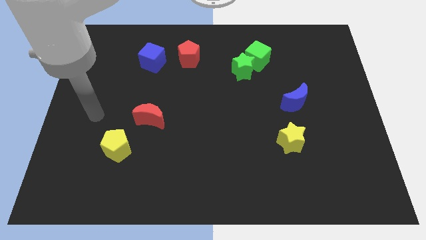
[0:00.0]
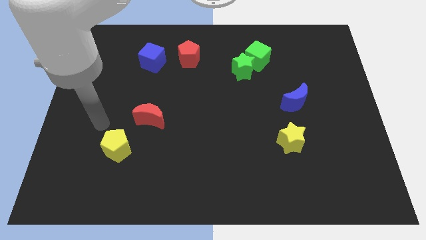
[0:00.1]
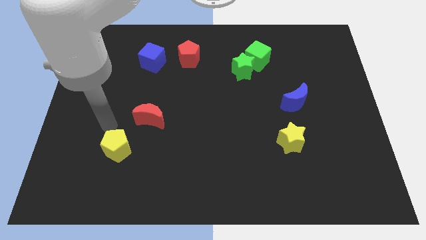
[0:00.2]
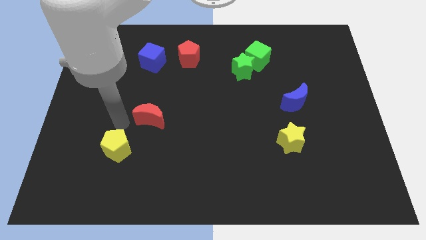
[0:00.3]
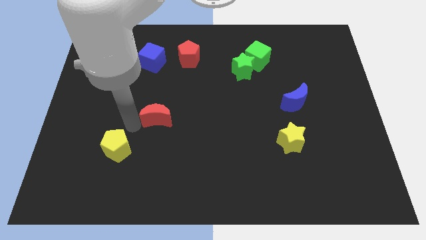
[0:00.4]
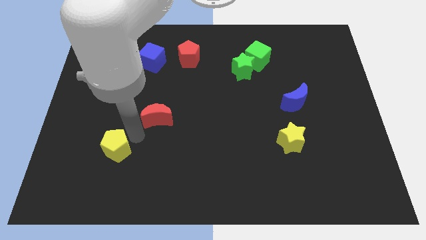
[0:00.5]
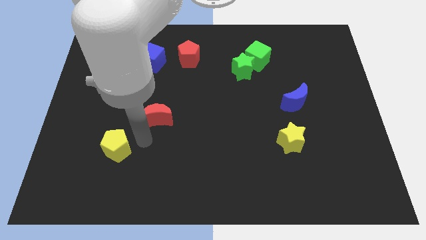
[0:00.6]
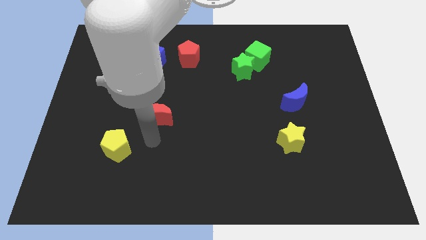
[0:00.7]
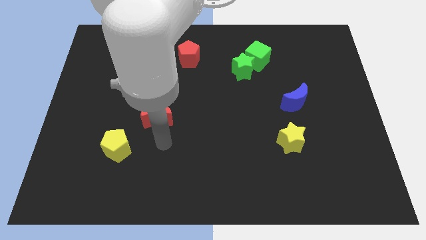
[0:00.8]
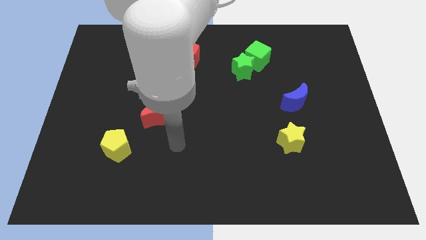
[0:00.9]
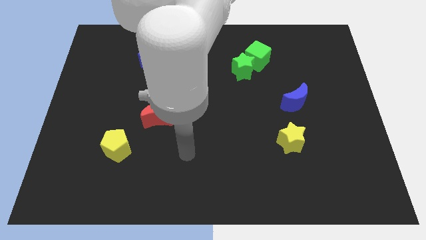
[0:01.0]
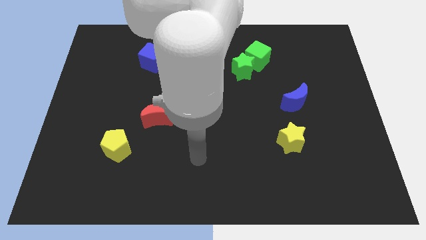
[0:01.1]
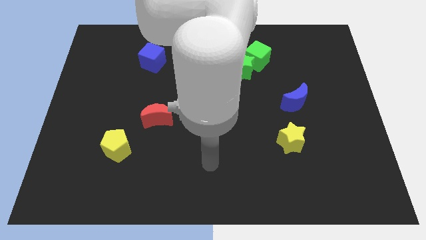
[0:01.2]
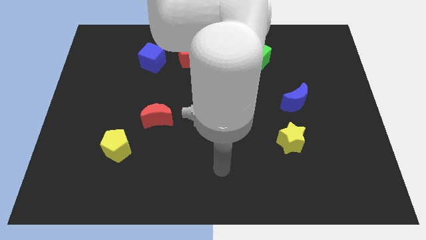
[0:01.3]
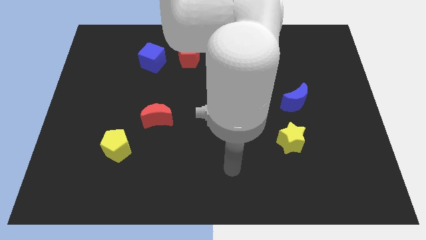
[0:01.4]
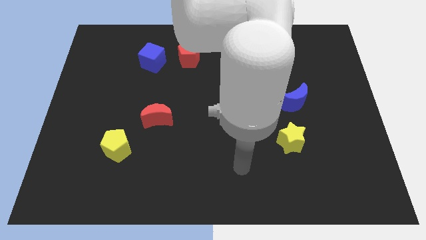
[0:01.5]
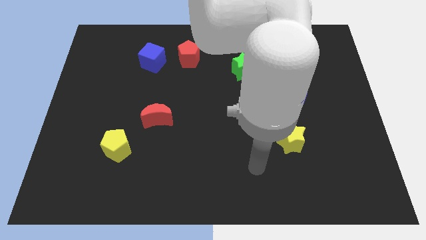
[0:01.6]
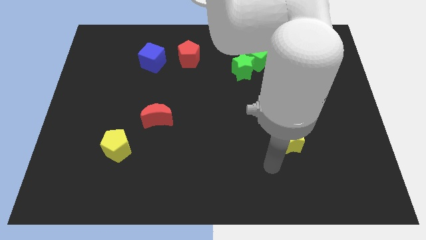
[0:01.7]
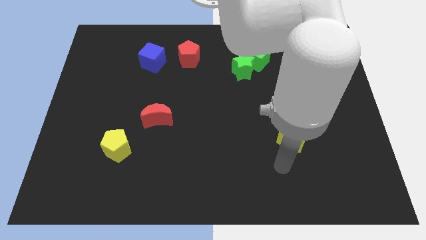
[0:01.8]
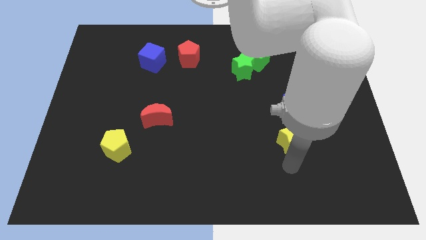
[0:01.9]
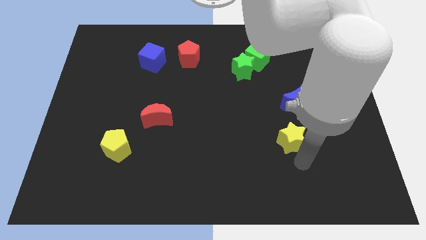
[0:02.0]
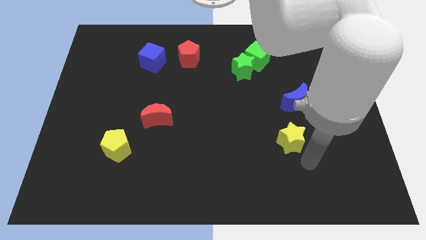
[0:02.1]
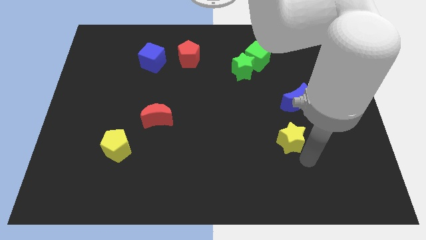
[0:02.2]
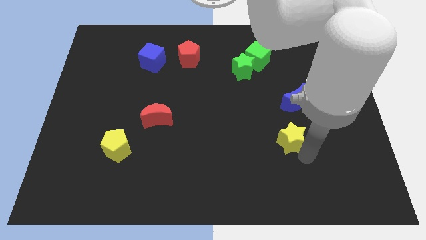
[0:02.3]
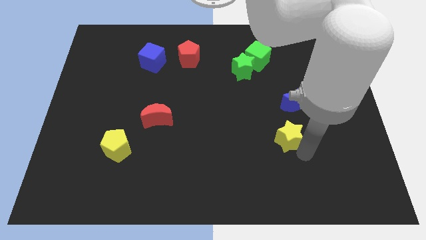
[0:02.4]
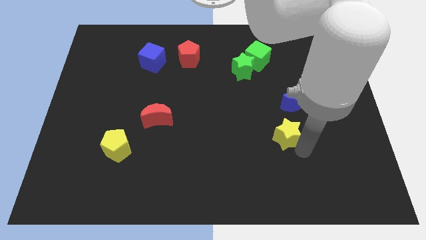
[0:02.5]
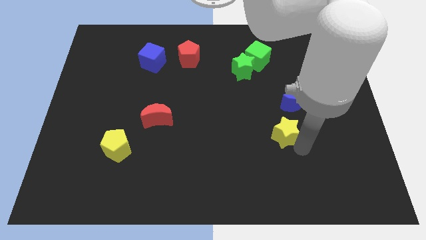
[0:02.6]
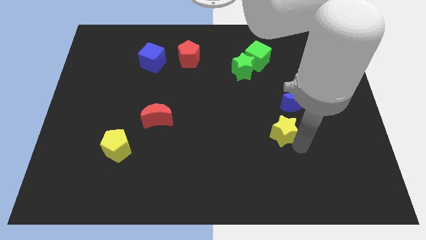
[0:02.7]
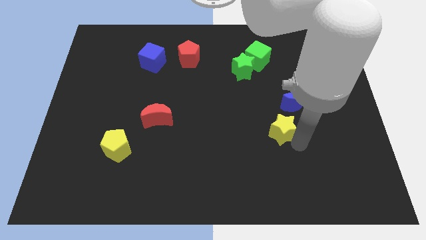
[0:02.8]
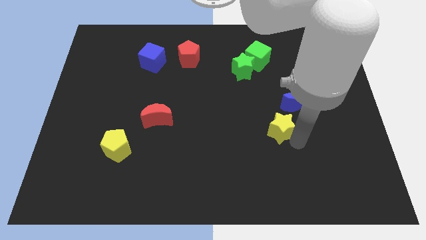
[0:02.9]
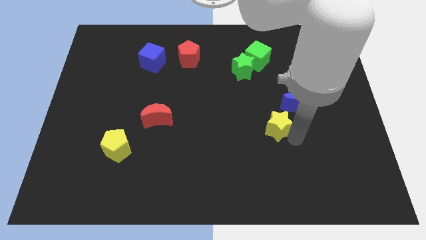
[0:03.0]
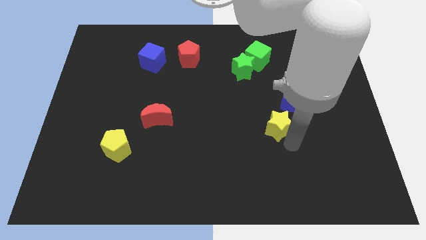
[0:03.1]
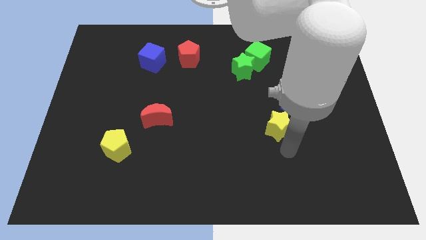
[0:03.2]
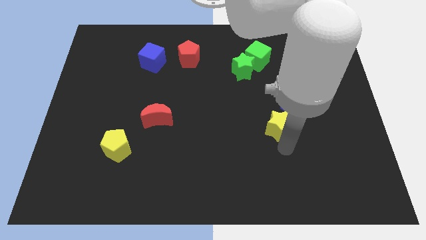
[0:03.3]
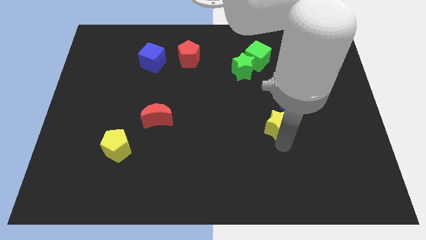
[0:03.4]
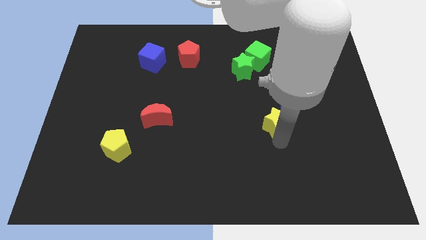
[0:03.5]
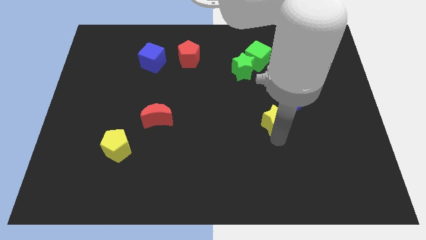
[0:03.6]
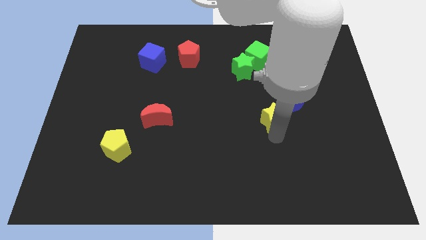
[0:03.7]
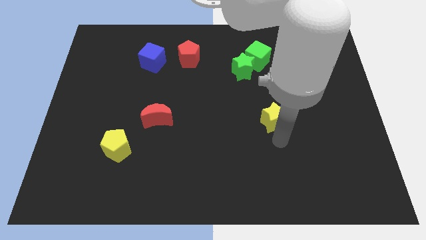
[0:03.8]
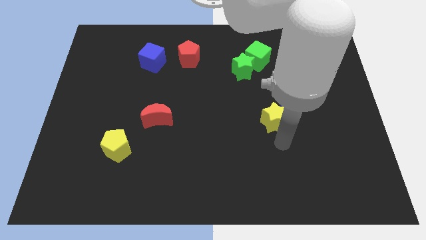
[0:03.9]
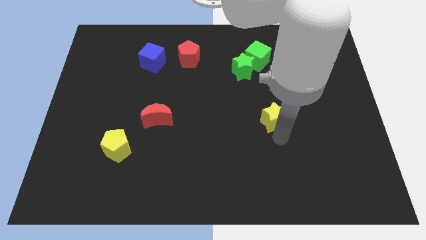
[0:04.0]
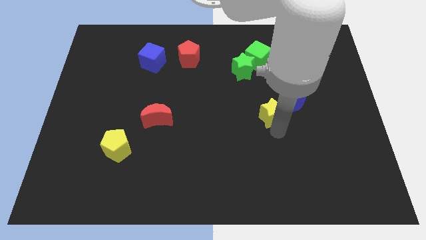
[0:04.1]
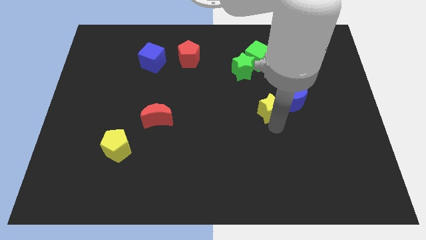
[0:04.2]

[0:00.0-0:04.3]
push the yellow star upwards a little bit

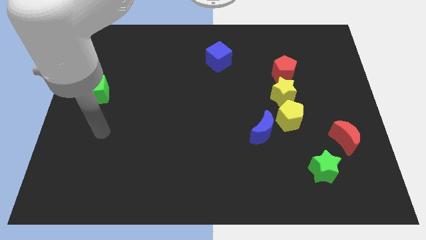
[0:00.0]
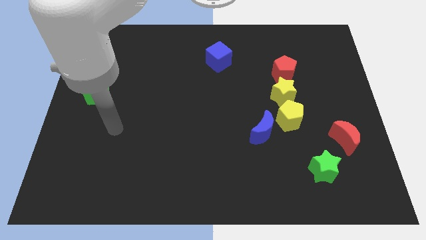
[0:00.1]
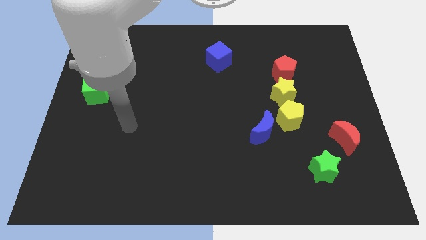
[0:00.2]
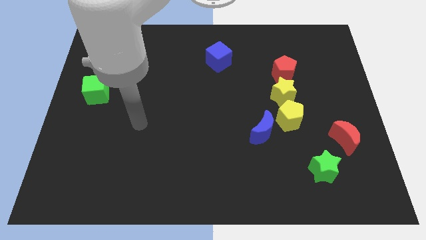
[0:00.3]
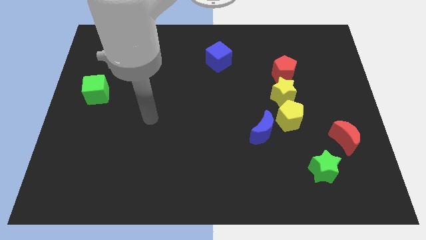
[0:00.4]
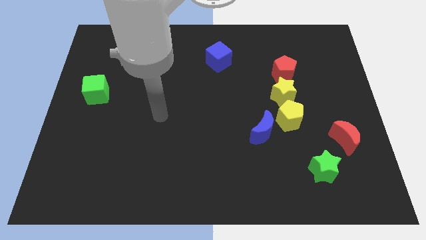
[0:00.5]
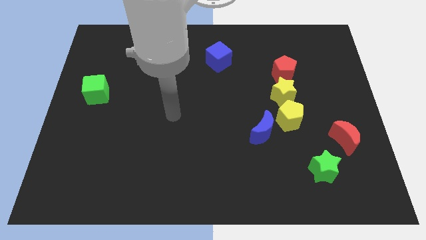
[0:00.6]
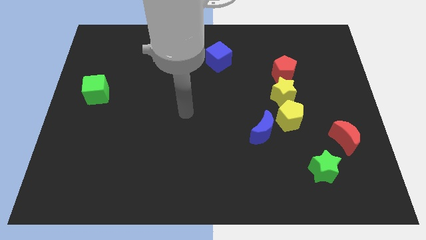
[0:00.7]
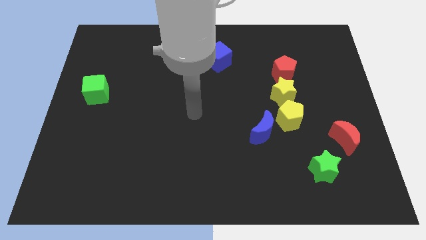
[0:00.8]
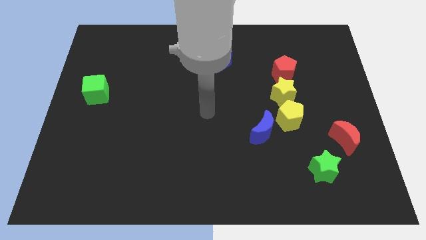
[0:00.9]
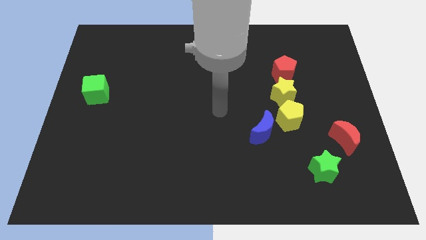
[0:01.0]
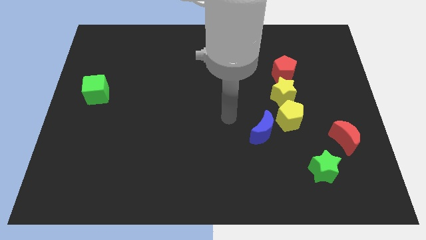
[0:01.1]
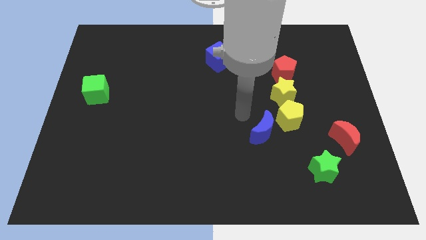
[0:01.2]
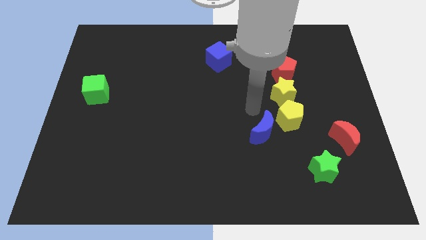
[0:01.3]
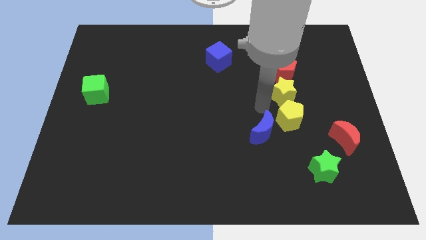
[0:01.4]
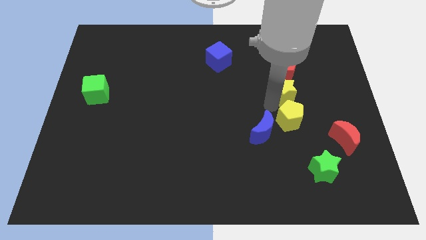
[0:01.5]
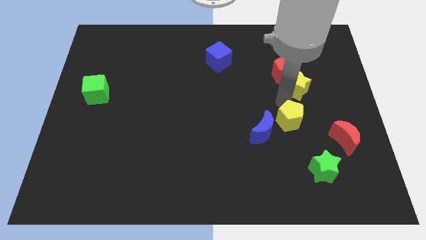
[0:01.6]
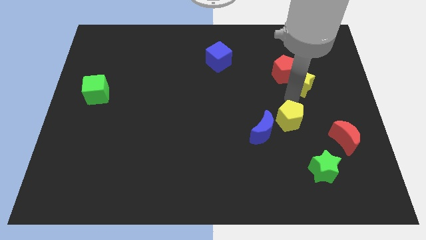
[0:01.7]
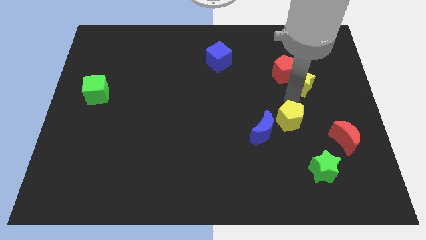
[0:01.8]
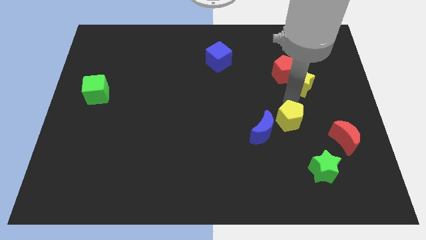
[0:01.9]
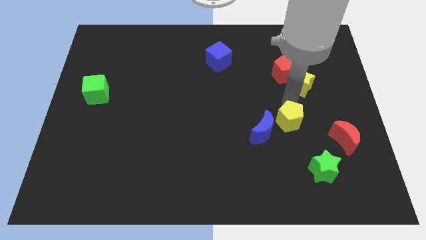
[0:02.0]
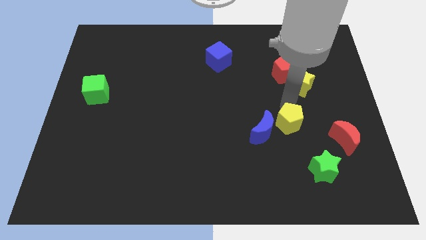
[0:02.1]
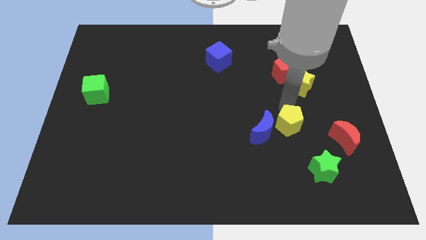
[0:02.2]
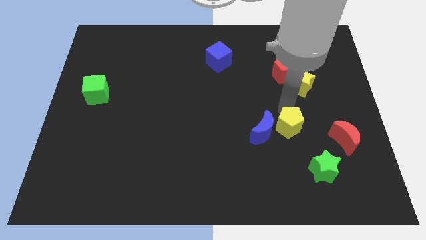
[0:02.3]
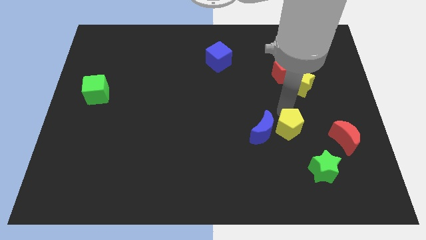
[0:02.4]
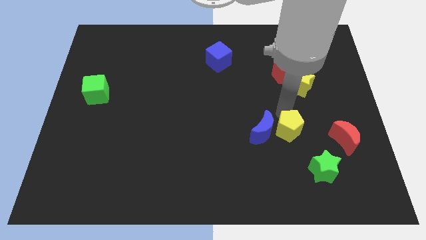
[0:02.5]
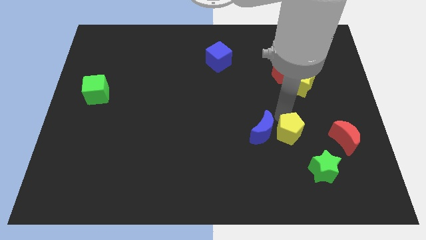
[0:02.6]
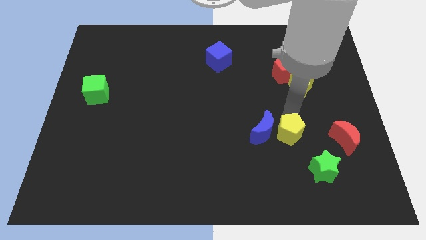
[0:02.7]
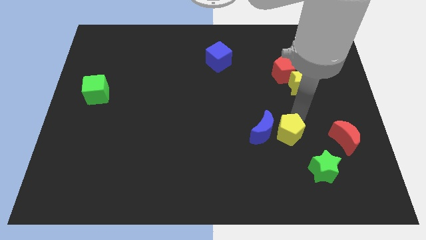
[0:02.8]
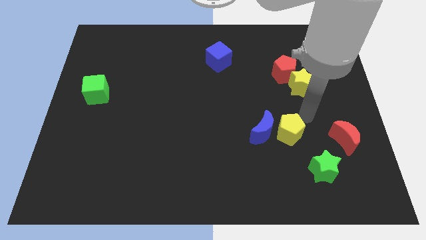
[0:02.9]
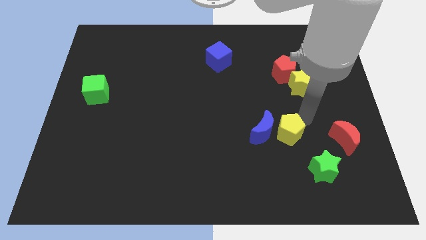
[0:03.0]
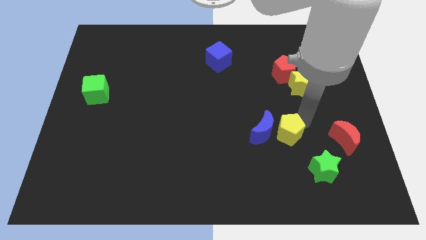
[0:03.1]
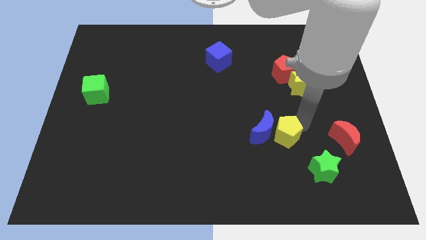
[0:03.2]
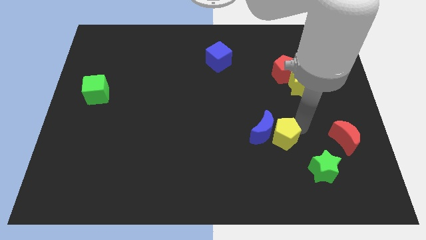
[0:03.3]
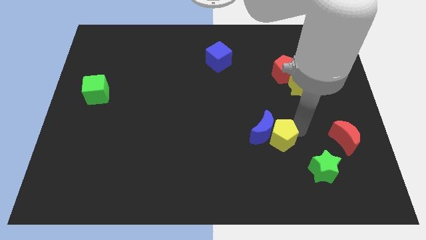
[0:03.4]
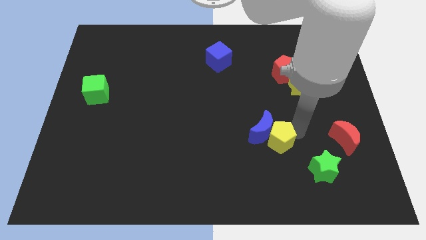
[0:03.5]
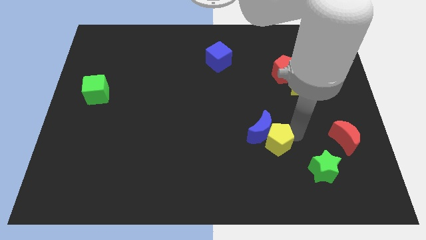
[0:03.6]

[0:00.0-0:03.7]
slightly push the yellow pentagon downwards and then to the left
